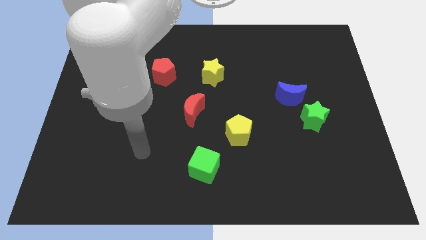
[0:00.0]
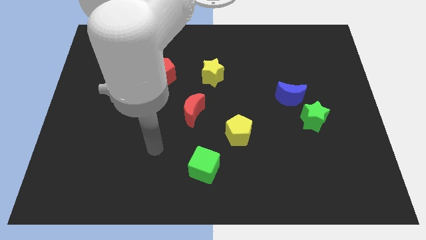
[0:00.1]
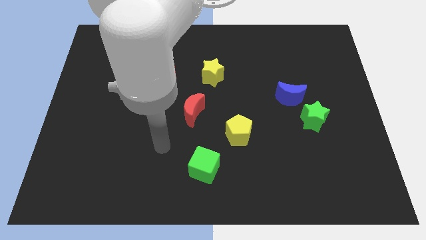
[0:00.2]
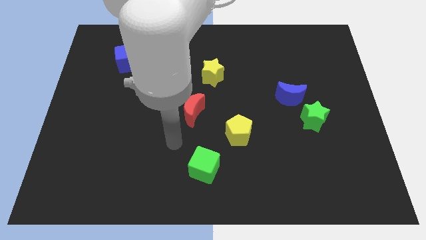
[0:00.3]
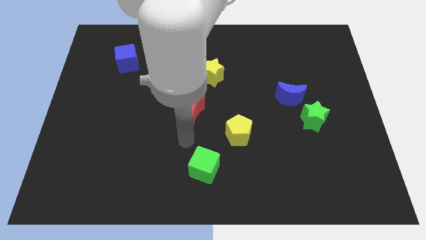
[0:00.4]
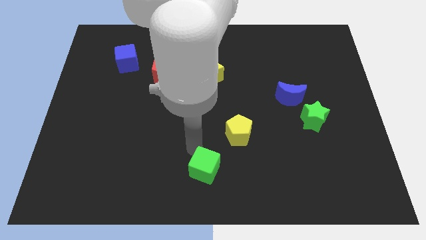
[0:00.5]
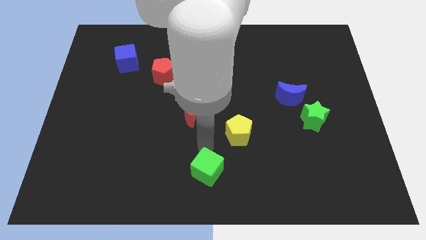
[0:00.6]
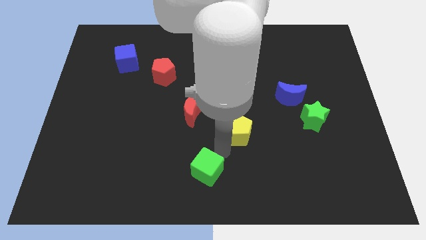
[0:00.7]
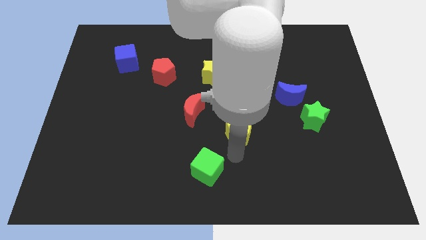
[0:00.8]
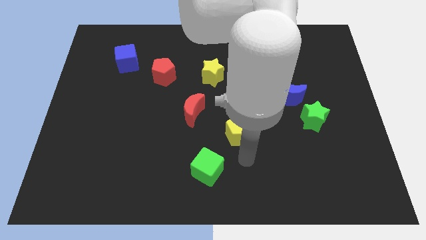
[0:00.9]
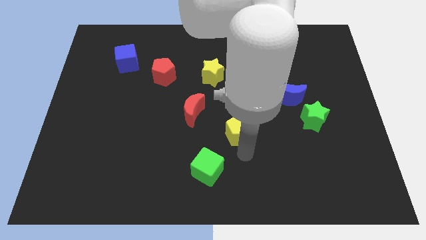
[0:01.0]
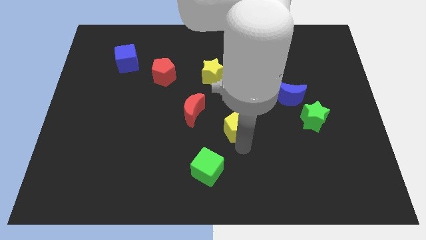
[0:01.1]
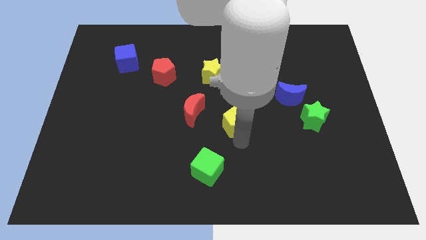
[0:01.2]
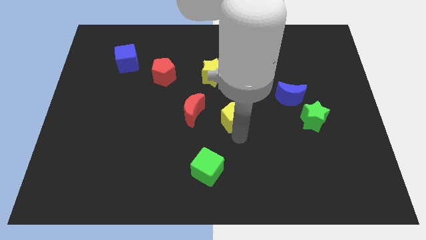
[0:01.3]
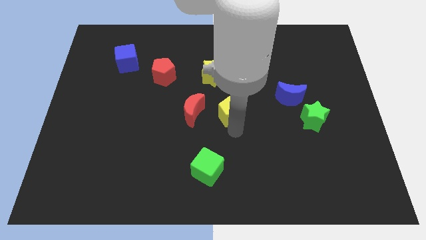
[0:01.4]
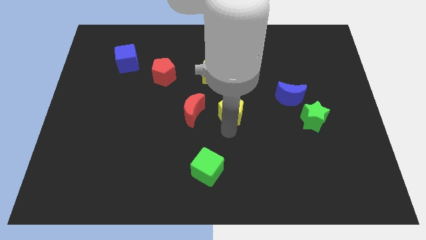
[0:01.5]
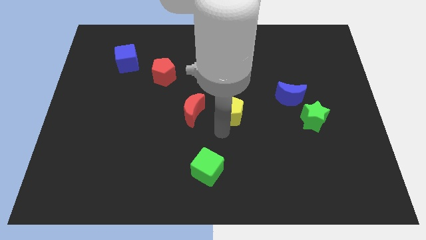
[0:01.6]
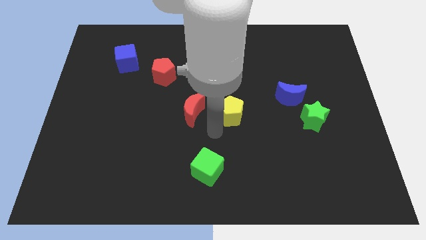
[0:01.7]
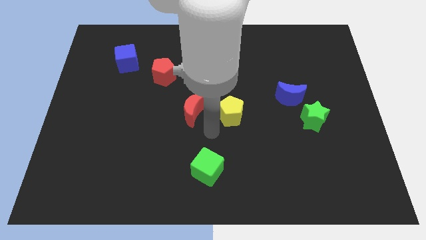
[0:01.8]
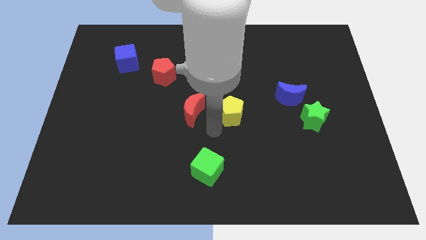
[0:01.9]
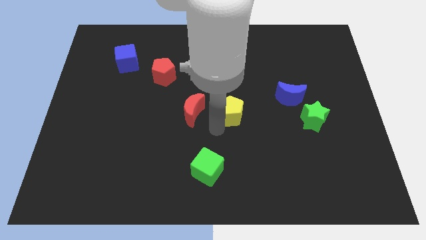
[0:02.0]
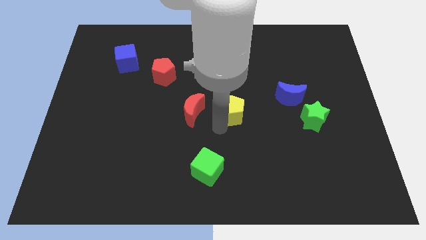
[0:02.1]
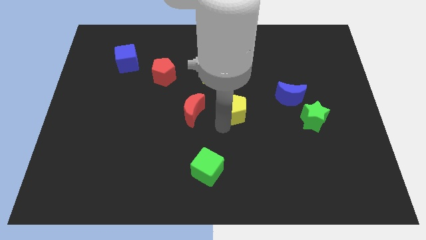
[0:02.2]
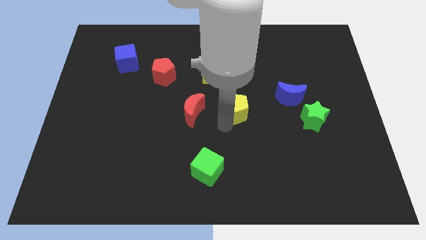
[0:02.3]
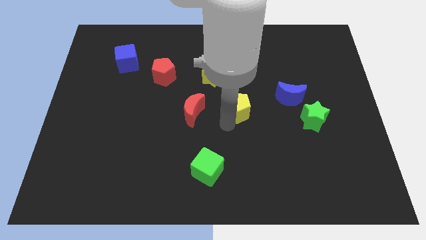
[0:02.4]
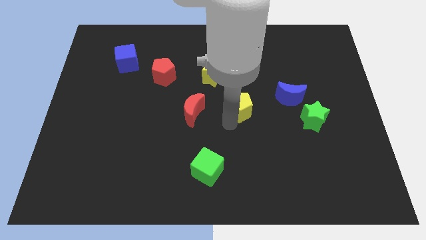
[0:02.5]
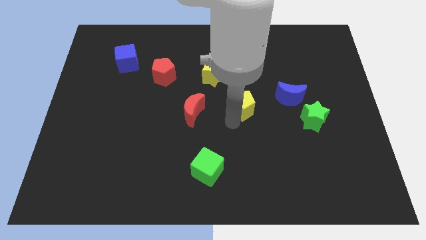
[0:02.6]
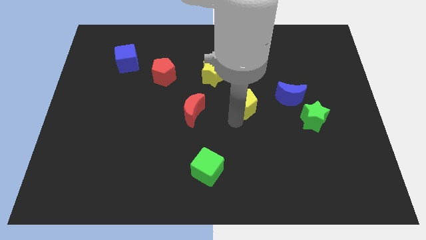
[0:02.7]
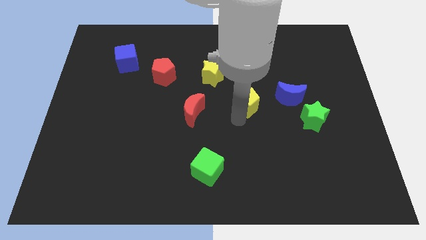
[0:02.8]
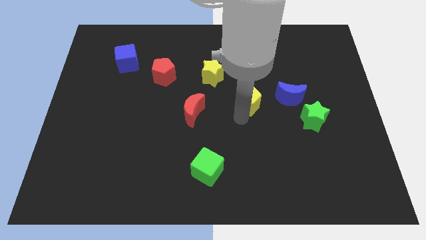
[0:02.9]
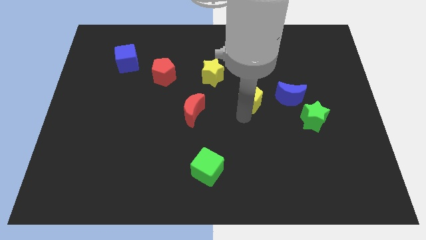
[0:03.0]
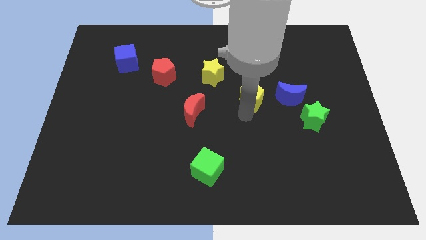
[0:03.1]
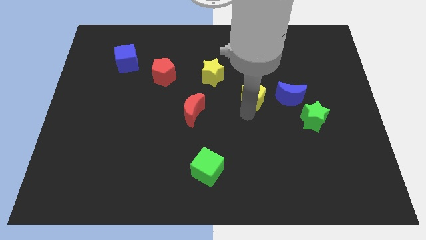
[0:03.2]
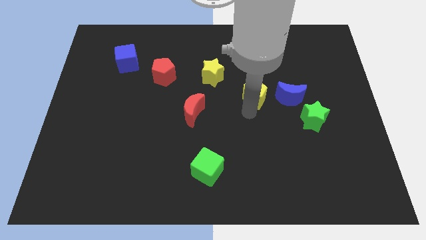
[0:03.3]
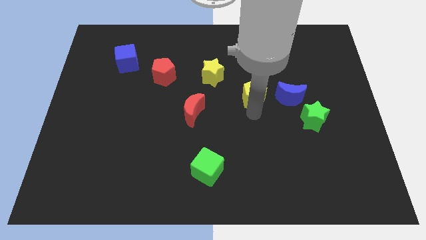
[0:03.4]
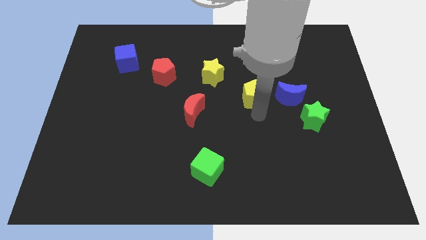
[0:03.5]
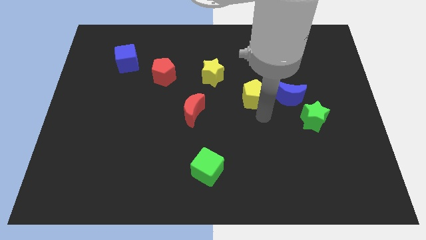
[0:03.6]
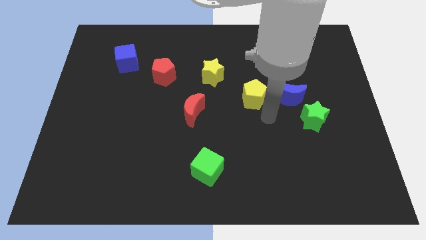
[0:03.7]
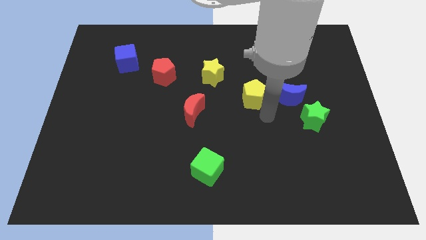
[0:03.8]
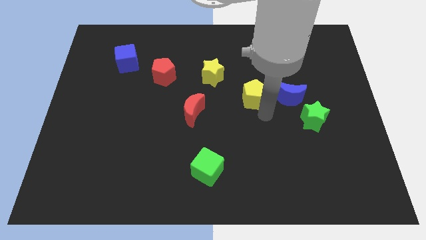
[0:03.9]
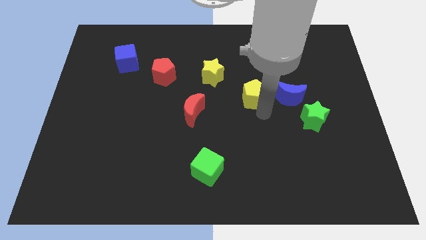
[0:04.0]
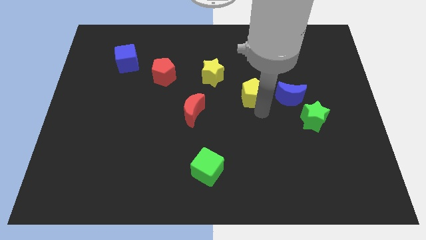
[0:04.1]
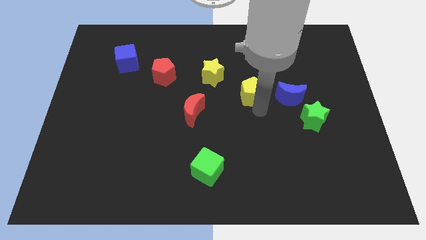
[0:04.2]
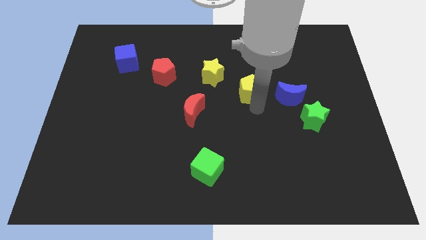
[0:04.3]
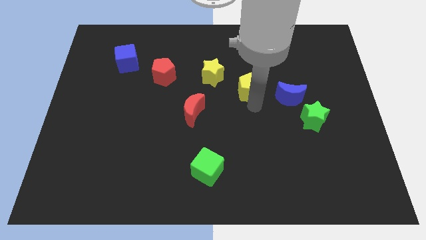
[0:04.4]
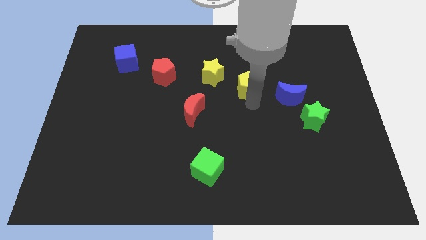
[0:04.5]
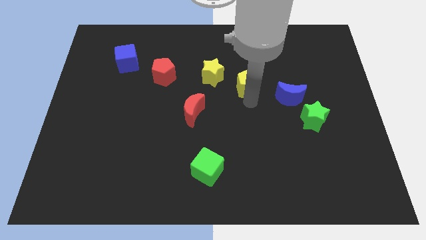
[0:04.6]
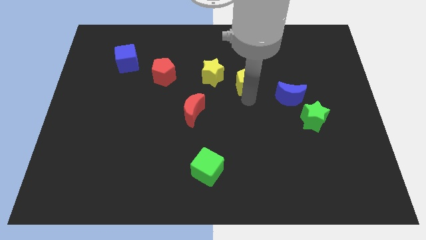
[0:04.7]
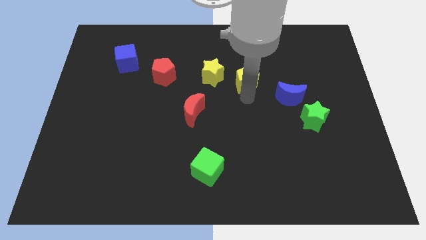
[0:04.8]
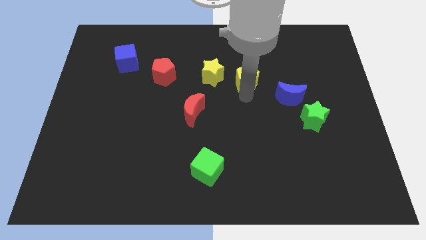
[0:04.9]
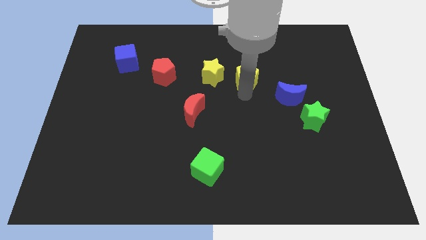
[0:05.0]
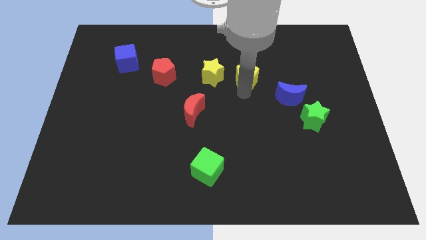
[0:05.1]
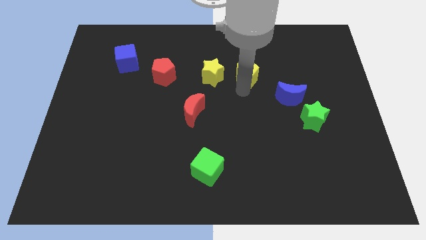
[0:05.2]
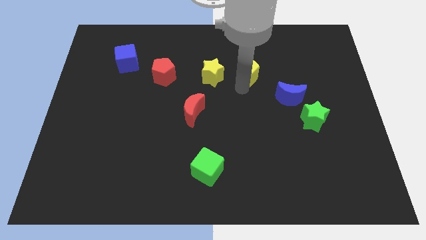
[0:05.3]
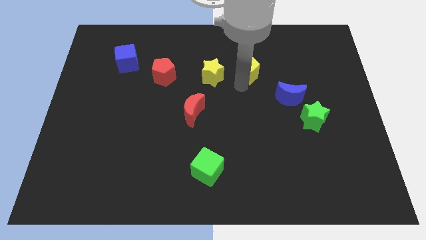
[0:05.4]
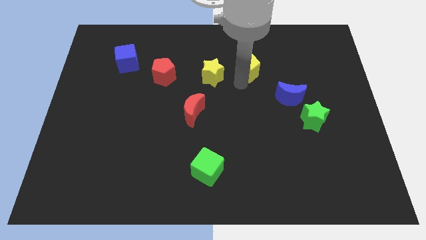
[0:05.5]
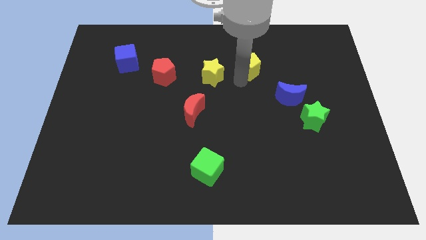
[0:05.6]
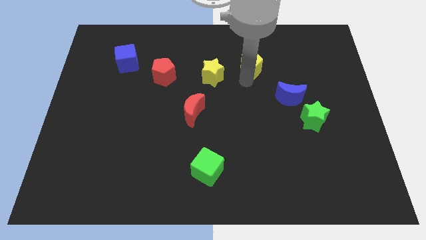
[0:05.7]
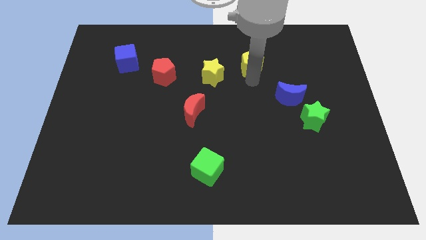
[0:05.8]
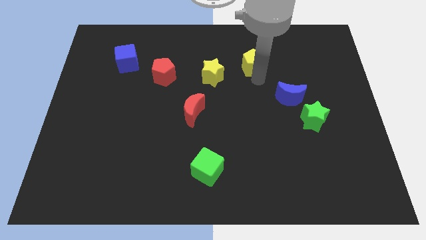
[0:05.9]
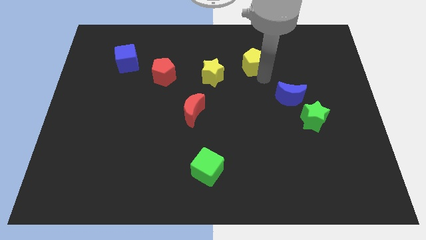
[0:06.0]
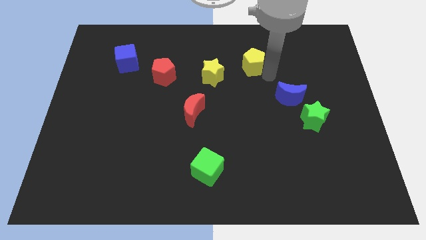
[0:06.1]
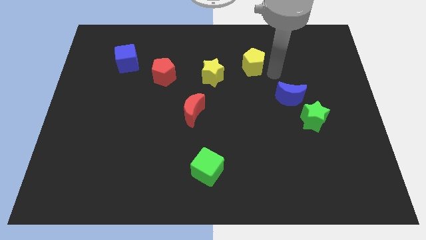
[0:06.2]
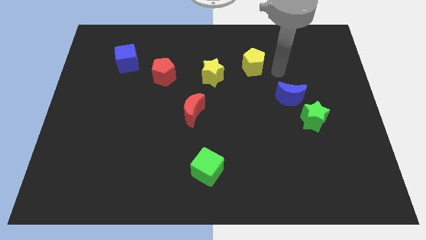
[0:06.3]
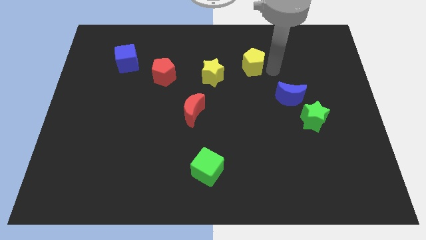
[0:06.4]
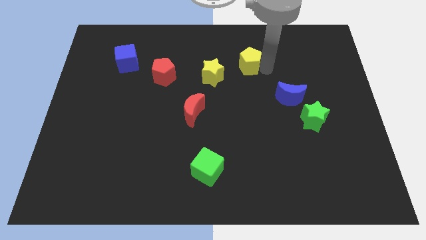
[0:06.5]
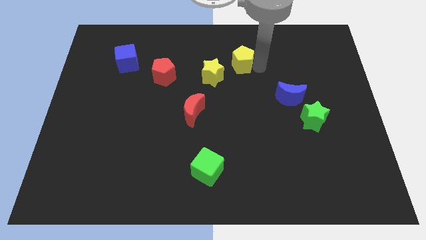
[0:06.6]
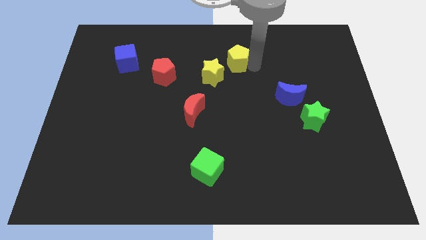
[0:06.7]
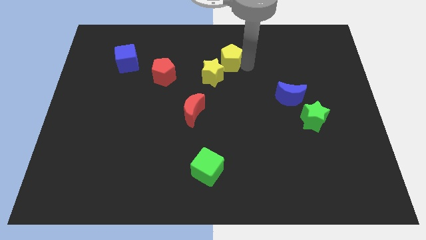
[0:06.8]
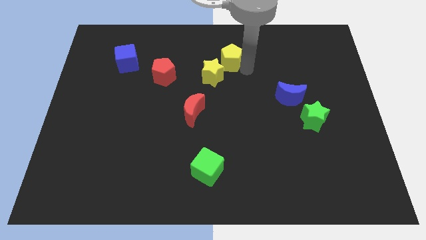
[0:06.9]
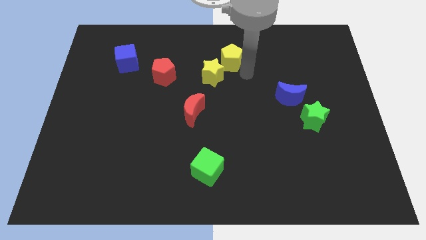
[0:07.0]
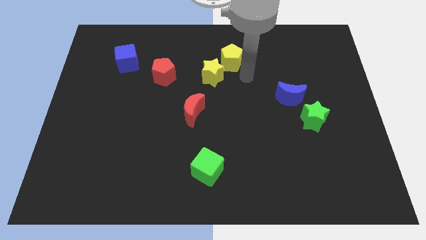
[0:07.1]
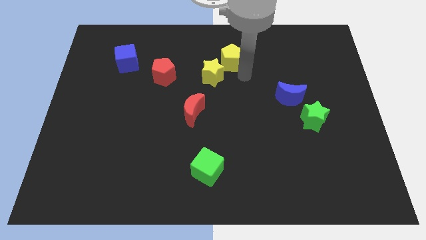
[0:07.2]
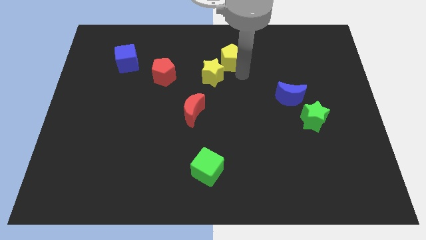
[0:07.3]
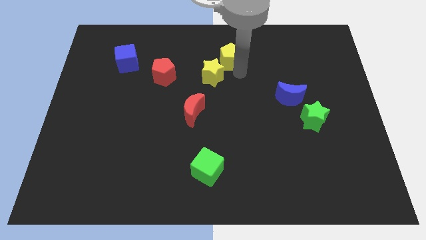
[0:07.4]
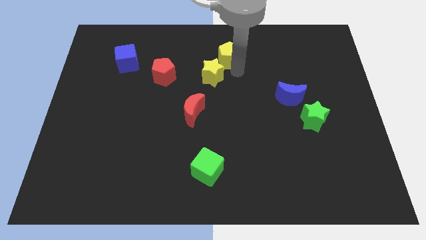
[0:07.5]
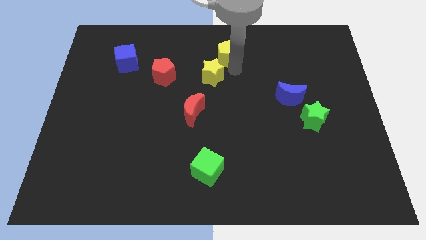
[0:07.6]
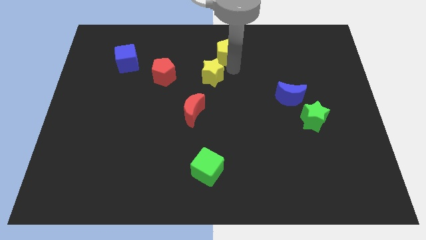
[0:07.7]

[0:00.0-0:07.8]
push the yellow pentagon to the towards your base
